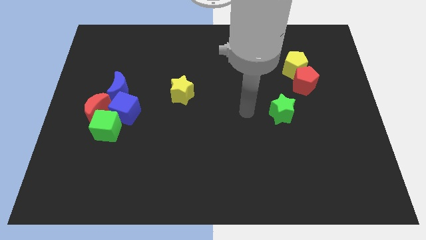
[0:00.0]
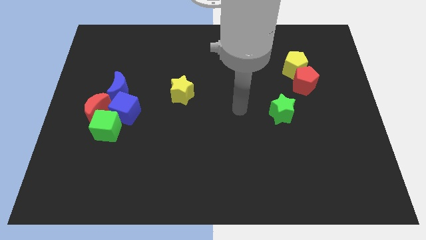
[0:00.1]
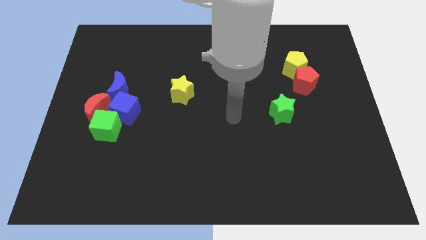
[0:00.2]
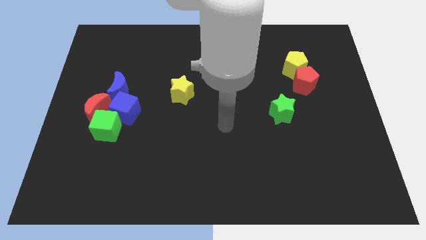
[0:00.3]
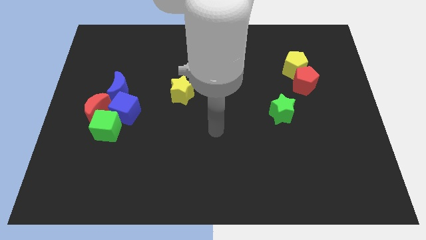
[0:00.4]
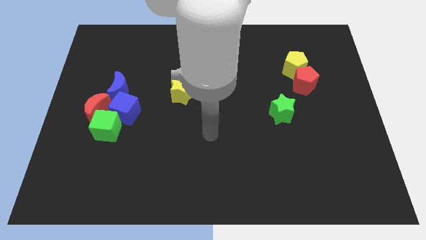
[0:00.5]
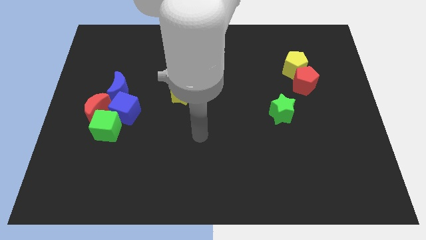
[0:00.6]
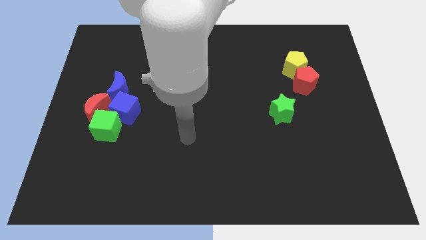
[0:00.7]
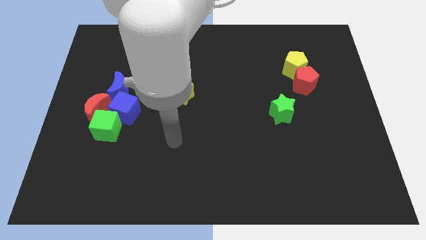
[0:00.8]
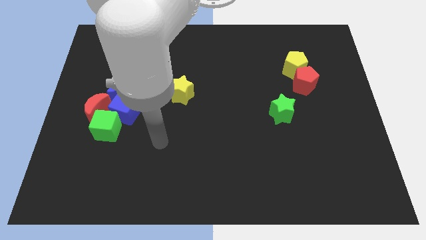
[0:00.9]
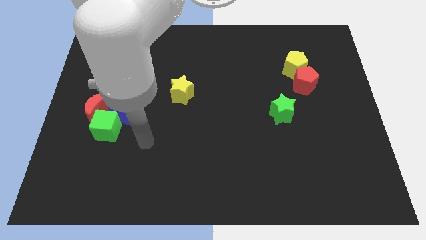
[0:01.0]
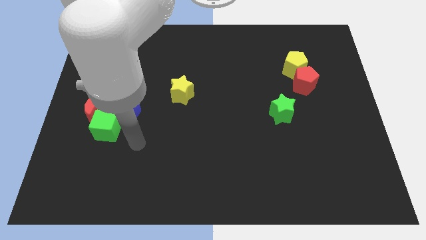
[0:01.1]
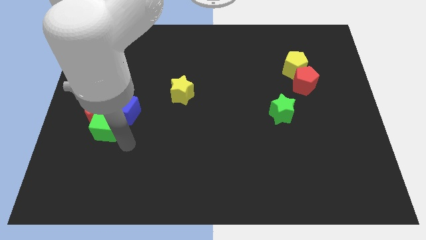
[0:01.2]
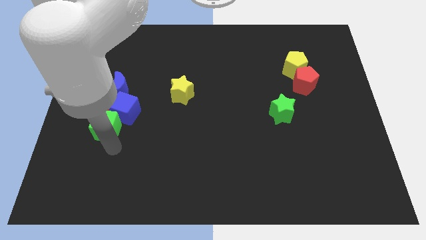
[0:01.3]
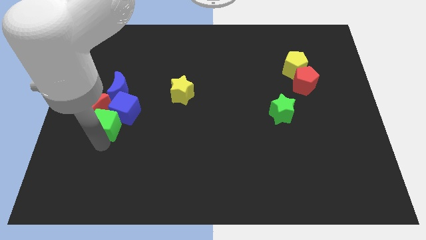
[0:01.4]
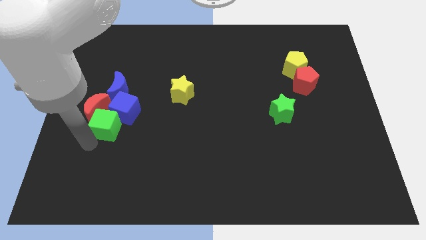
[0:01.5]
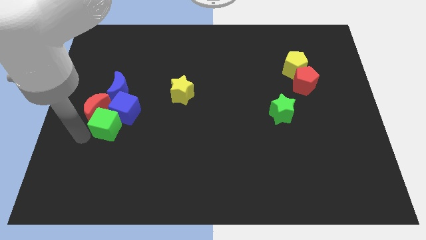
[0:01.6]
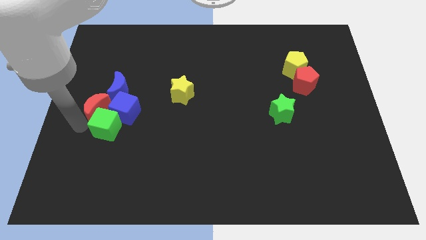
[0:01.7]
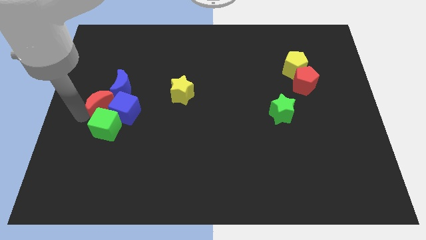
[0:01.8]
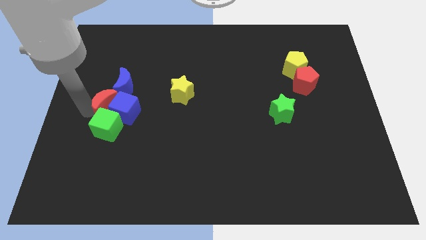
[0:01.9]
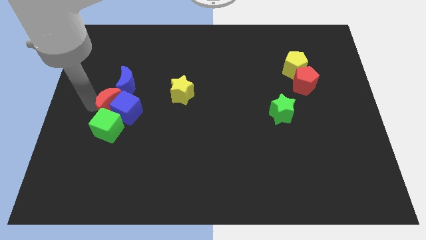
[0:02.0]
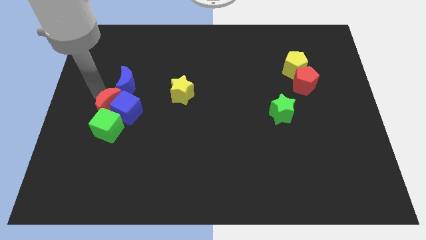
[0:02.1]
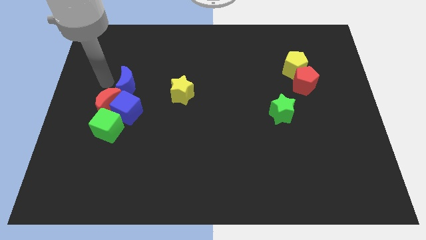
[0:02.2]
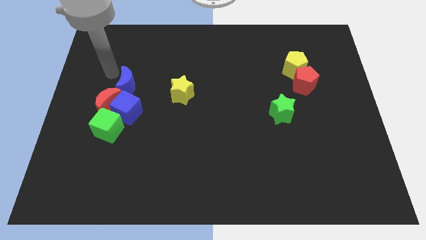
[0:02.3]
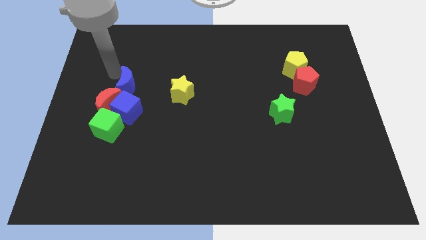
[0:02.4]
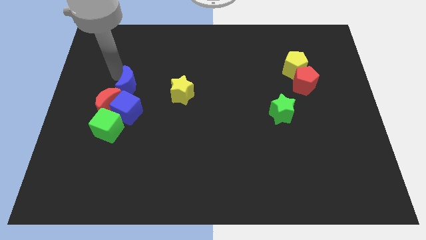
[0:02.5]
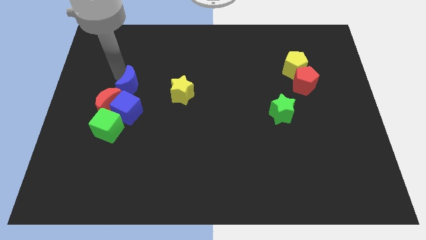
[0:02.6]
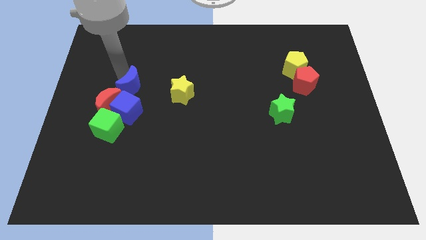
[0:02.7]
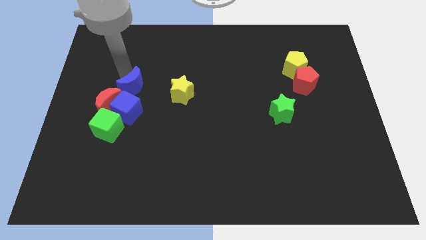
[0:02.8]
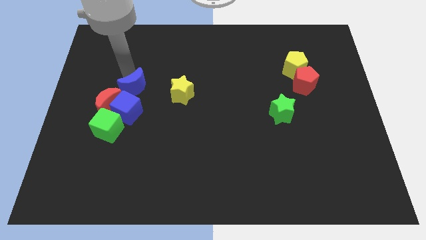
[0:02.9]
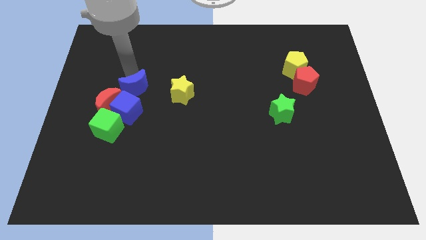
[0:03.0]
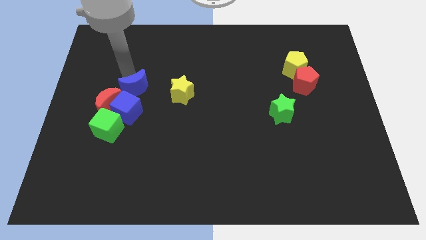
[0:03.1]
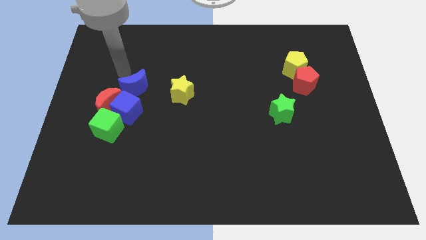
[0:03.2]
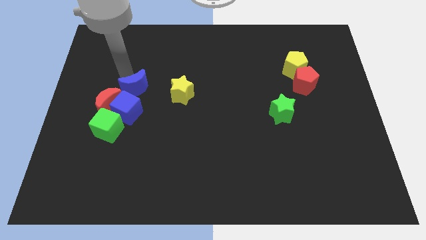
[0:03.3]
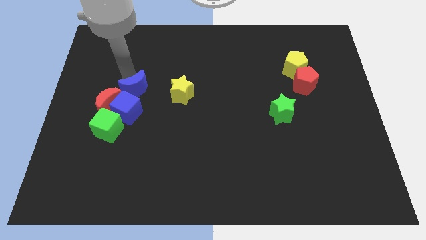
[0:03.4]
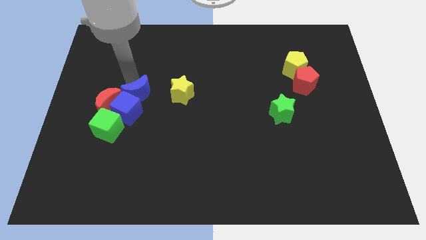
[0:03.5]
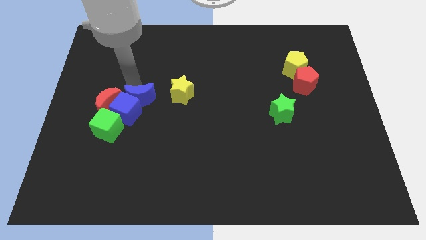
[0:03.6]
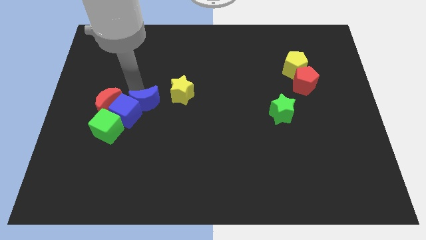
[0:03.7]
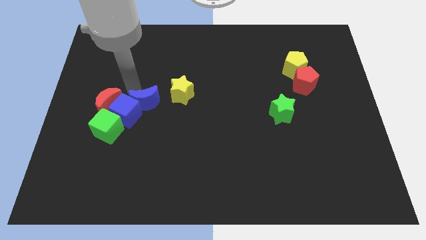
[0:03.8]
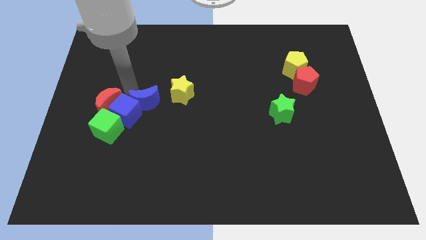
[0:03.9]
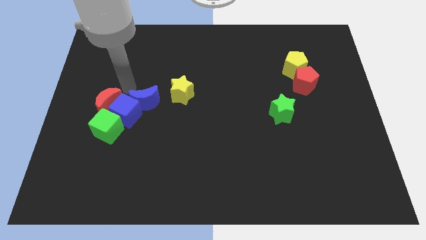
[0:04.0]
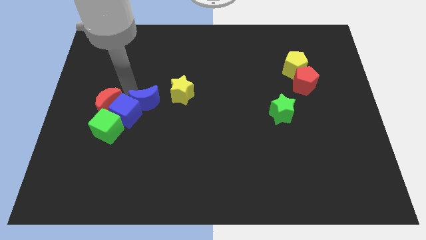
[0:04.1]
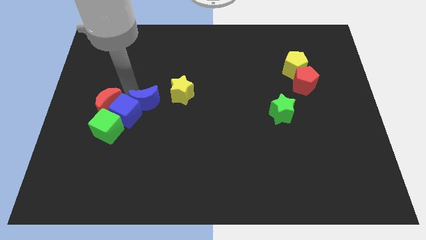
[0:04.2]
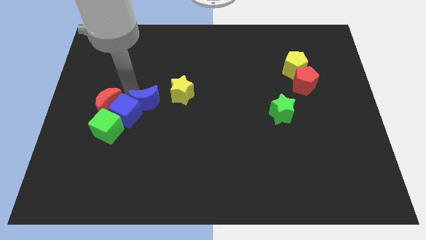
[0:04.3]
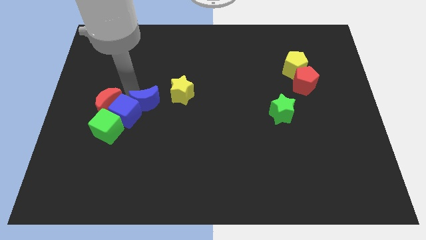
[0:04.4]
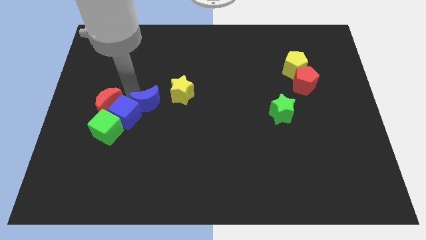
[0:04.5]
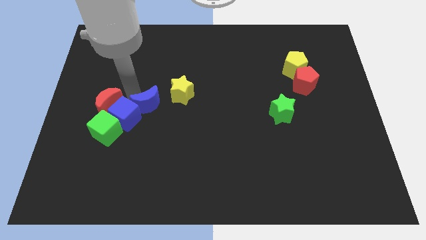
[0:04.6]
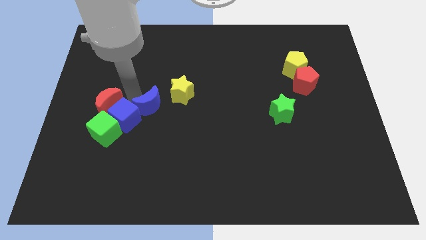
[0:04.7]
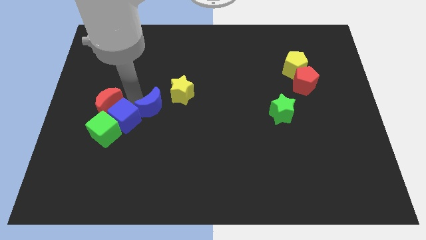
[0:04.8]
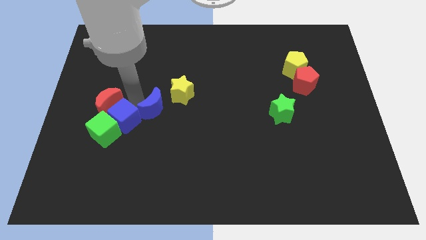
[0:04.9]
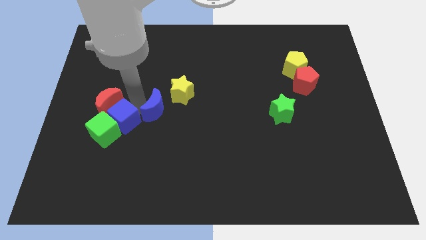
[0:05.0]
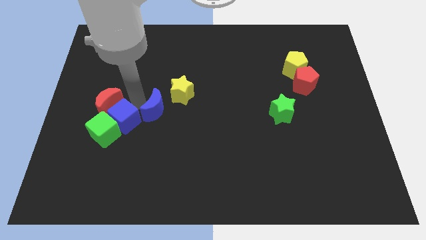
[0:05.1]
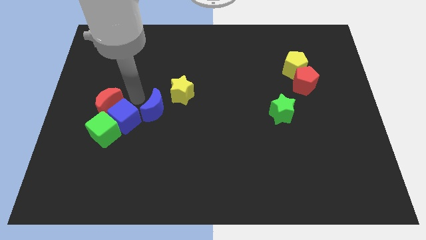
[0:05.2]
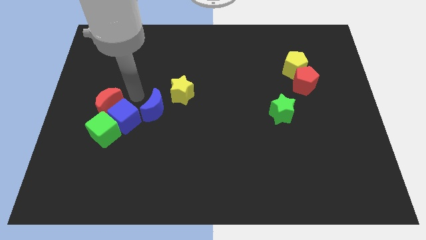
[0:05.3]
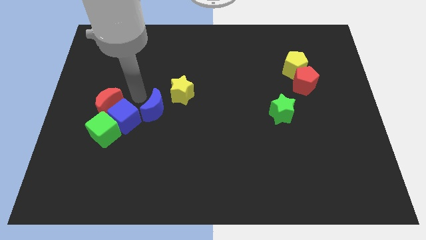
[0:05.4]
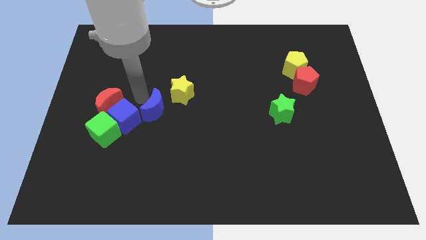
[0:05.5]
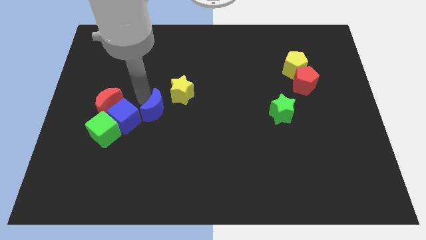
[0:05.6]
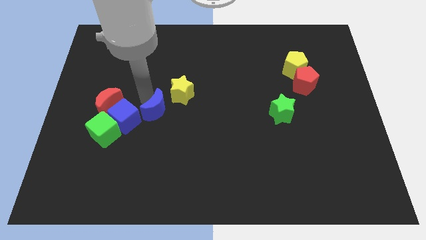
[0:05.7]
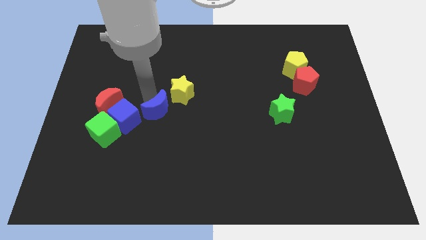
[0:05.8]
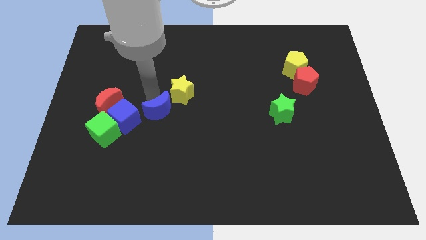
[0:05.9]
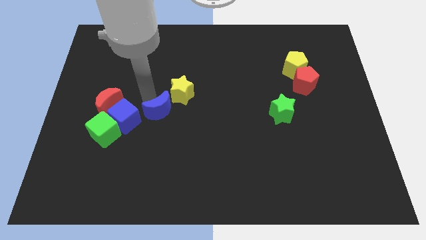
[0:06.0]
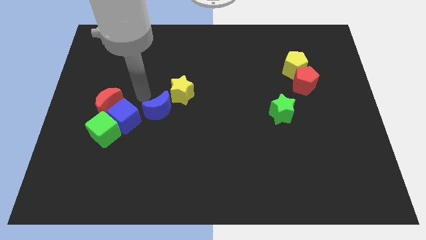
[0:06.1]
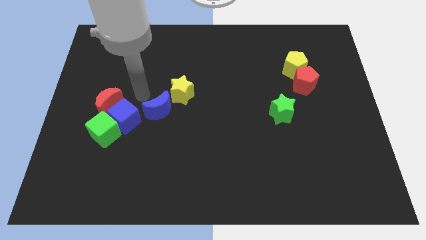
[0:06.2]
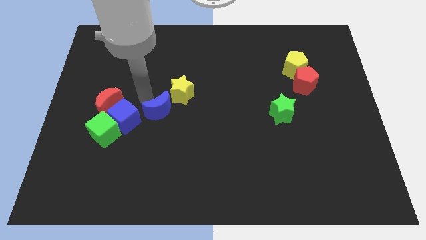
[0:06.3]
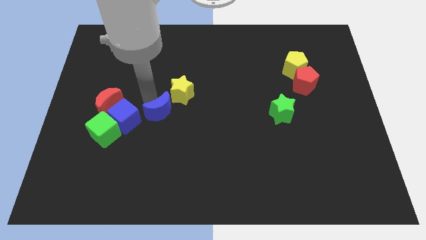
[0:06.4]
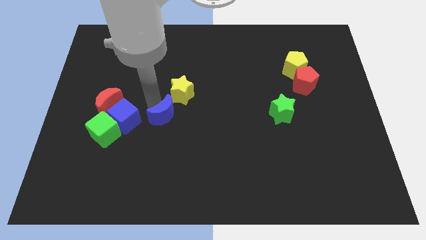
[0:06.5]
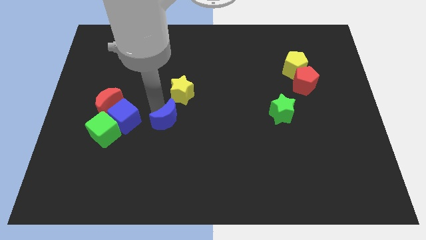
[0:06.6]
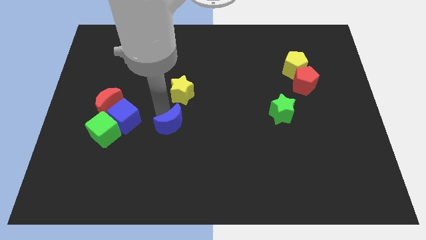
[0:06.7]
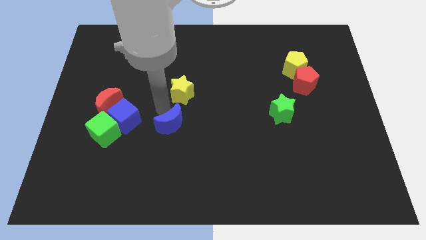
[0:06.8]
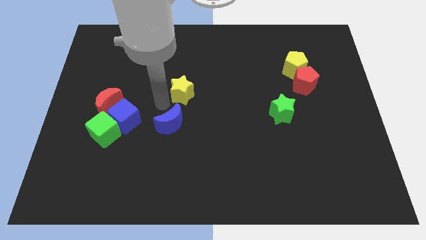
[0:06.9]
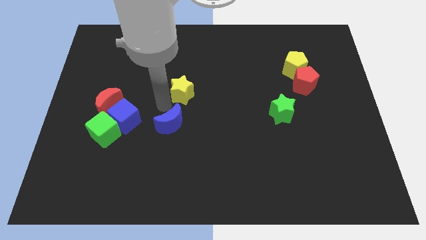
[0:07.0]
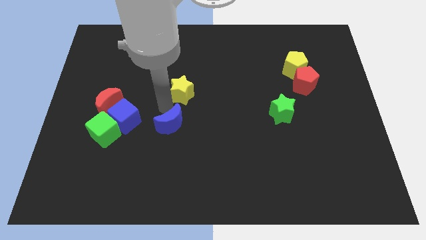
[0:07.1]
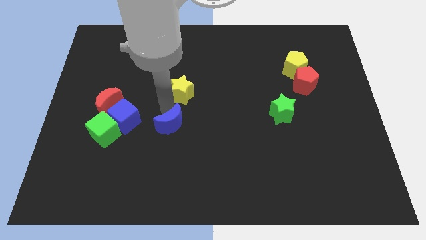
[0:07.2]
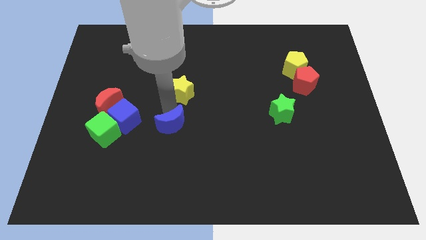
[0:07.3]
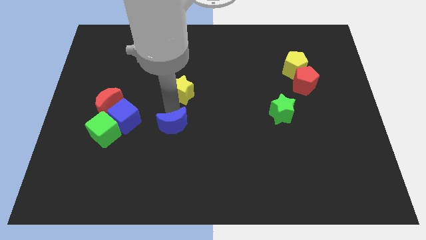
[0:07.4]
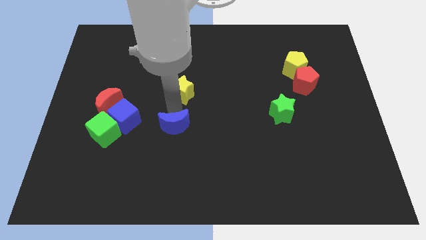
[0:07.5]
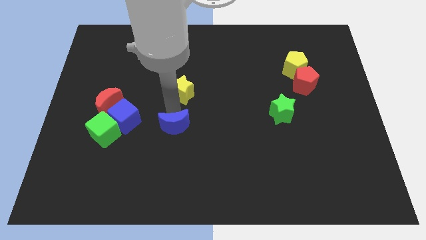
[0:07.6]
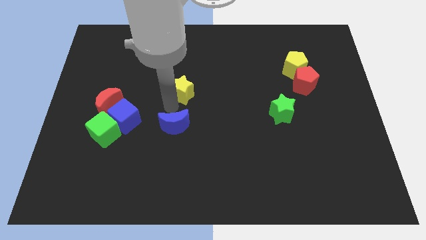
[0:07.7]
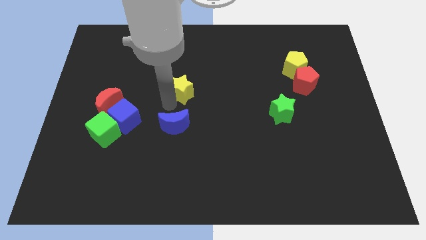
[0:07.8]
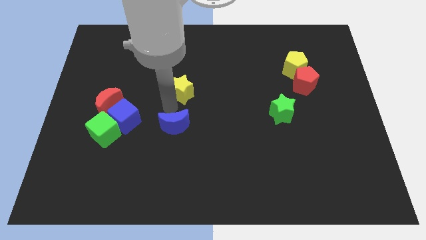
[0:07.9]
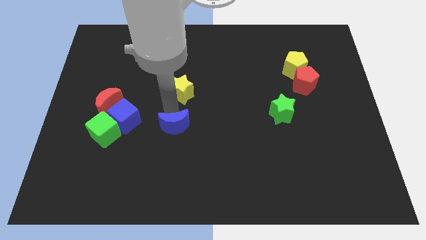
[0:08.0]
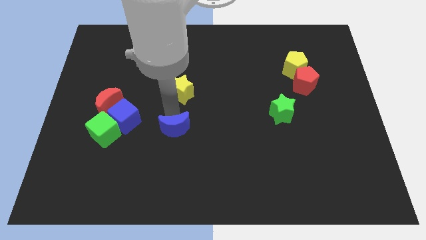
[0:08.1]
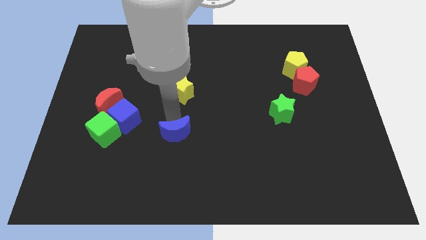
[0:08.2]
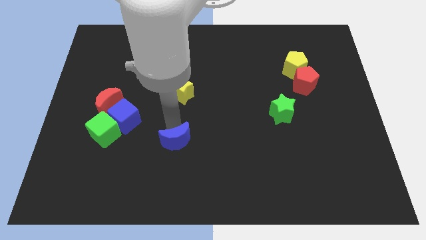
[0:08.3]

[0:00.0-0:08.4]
push the blue moon down and then right
